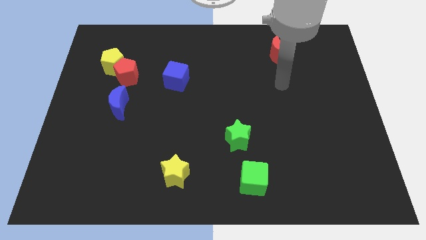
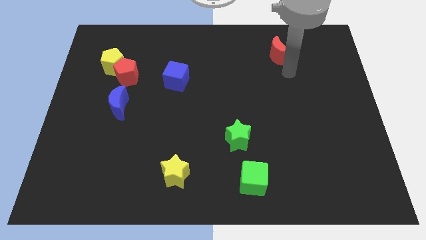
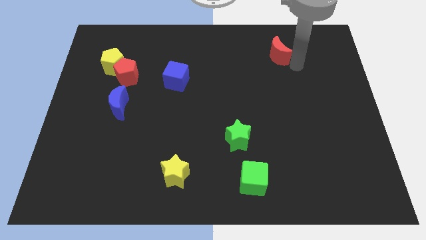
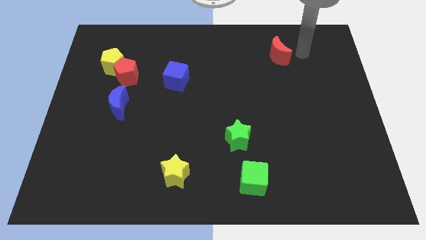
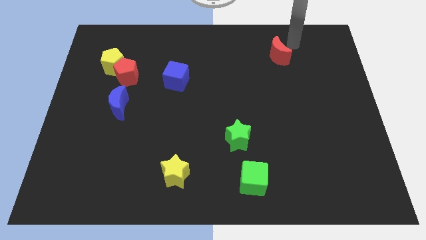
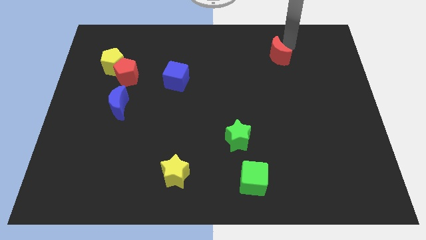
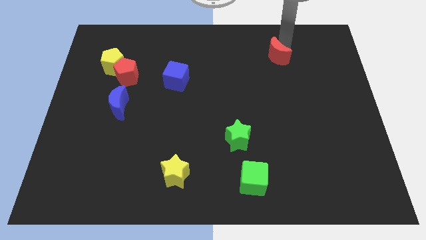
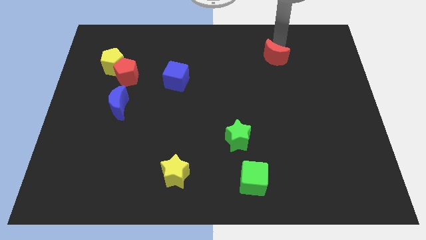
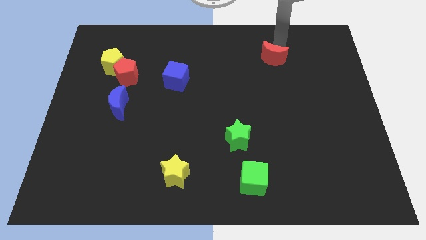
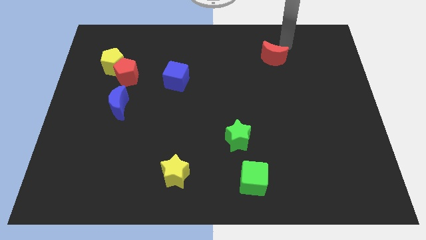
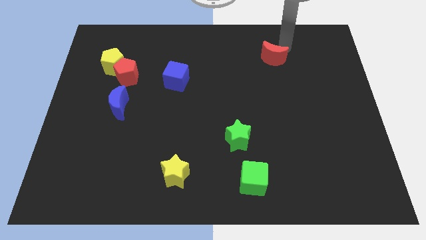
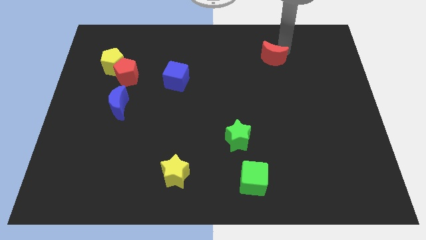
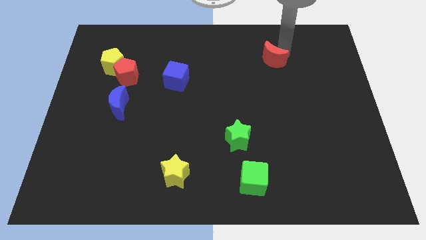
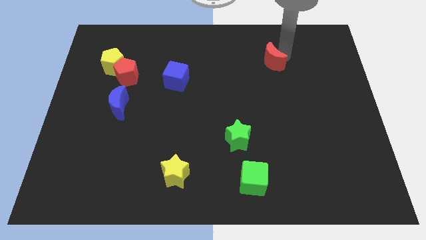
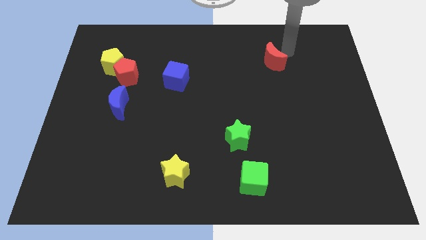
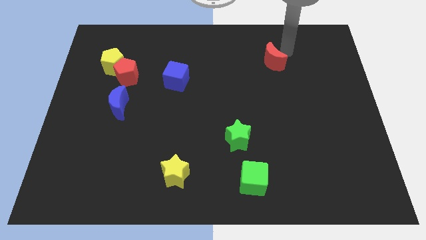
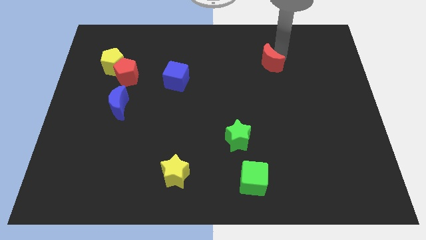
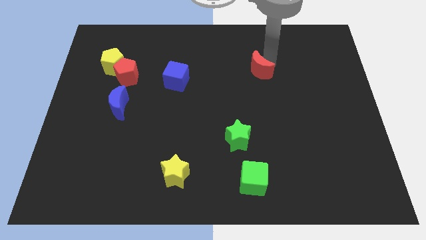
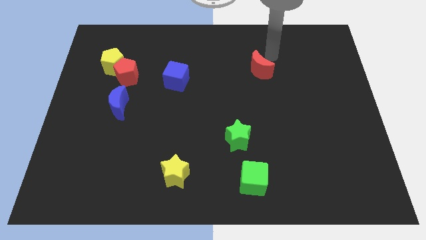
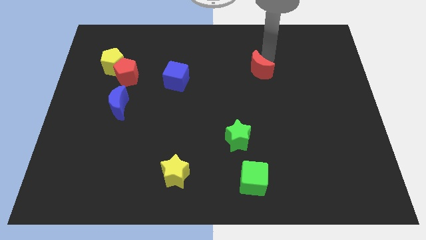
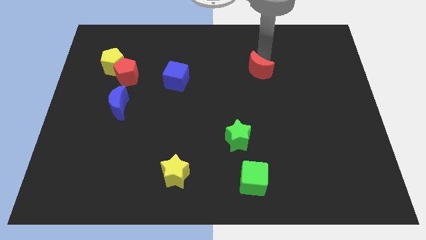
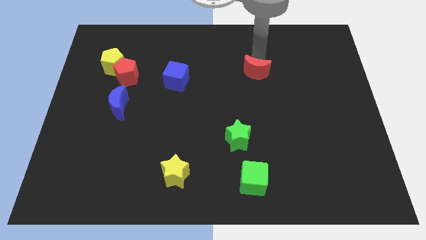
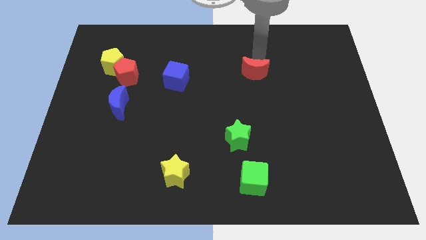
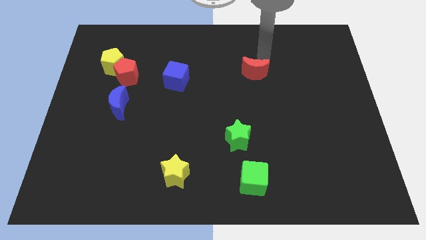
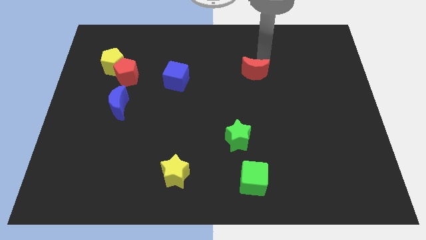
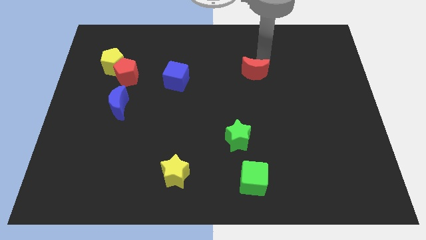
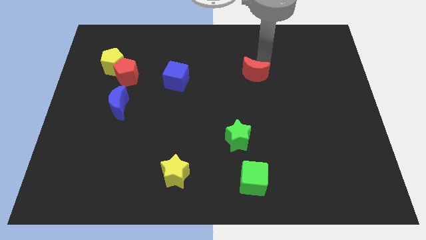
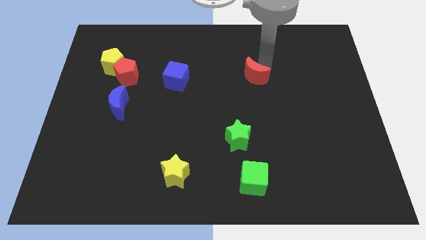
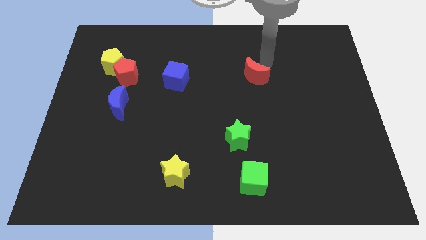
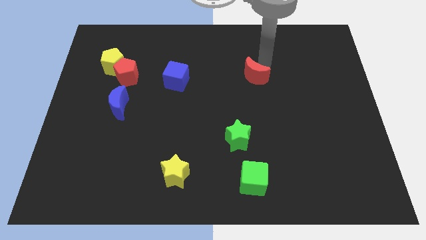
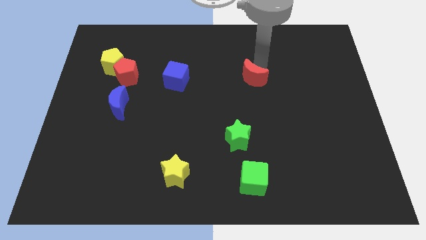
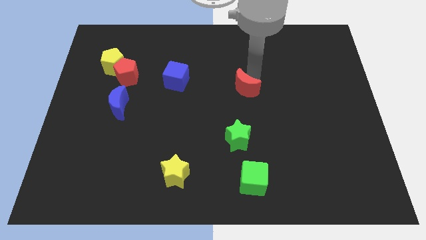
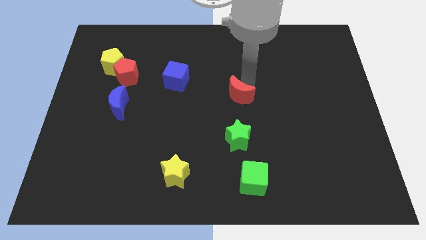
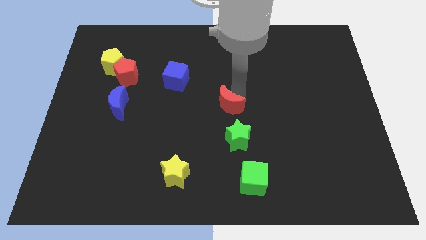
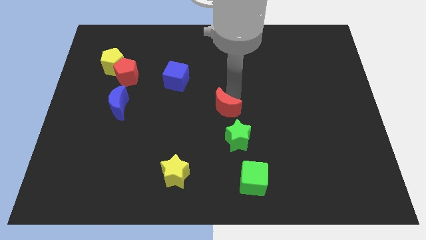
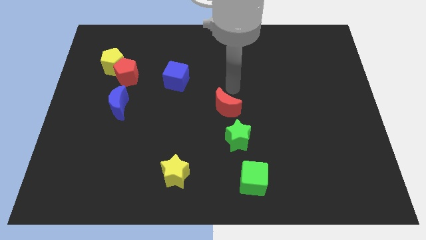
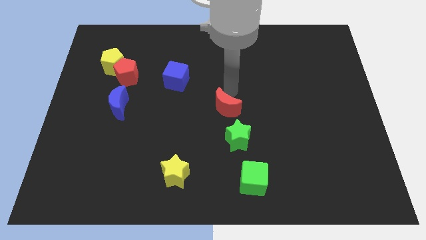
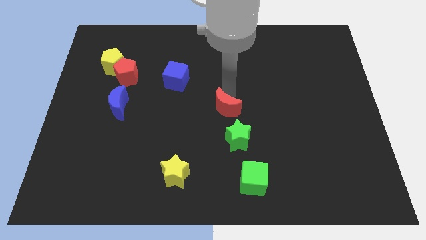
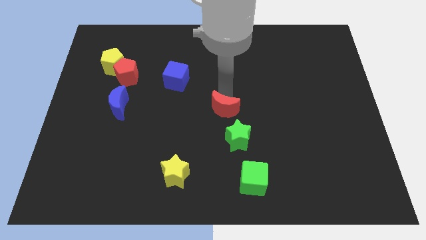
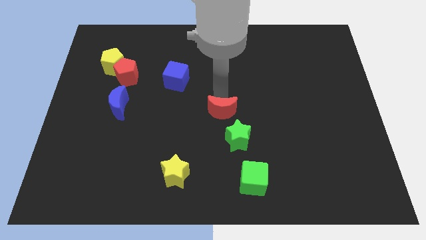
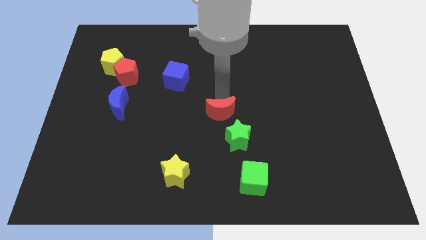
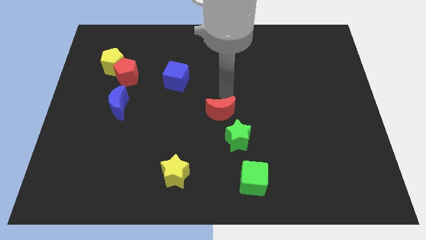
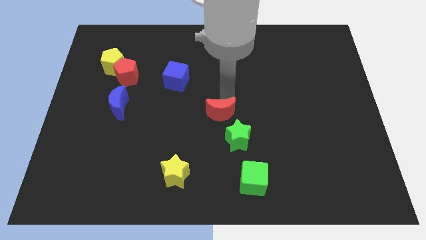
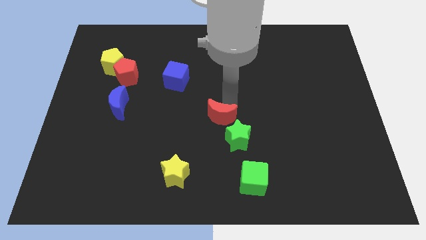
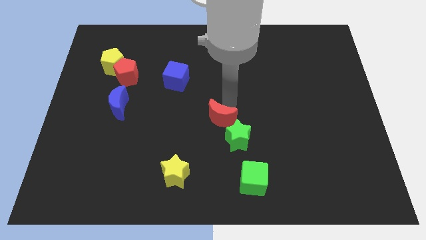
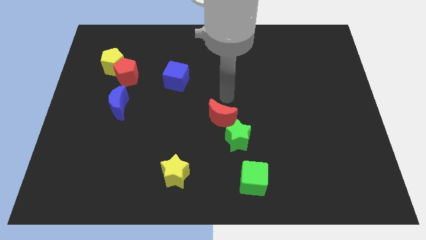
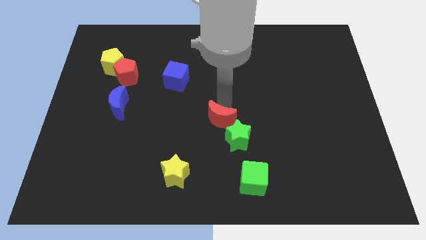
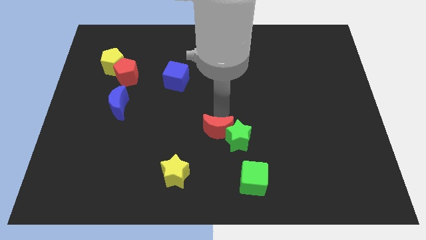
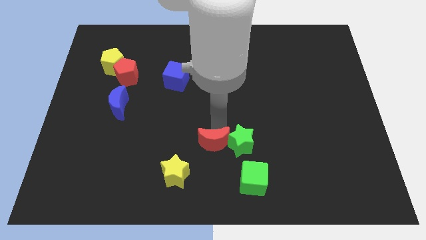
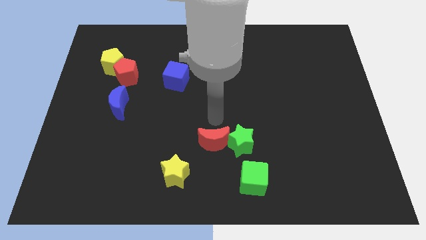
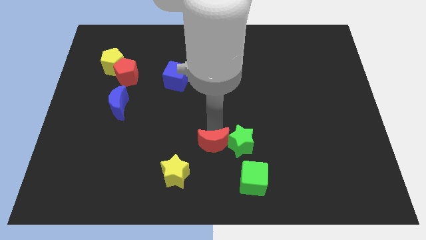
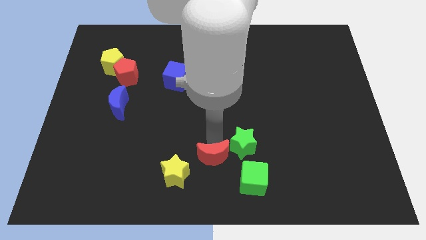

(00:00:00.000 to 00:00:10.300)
slide the red moon to the bottom

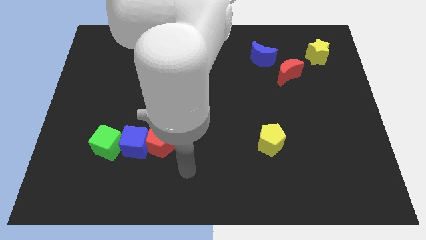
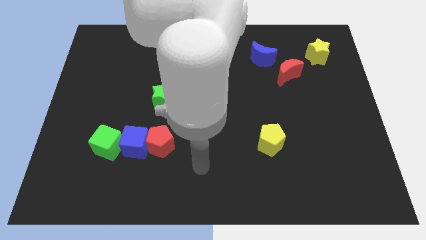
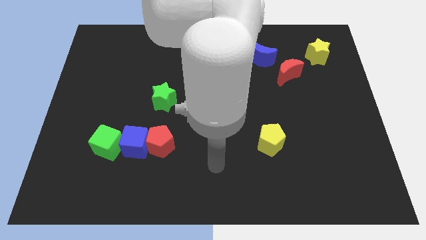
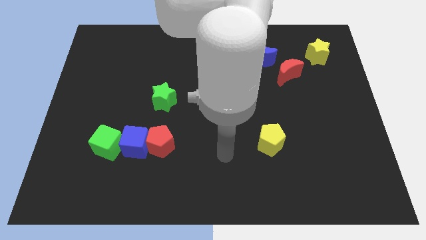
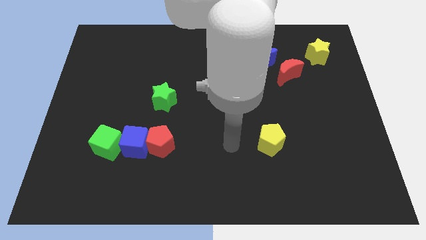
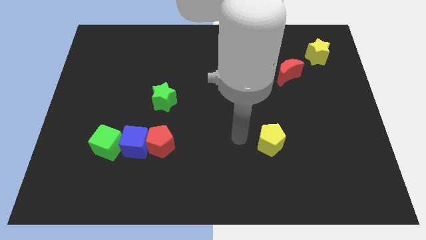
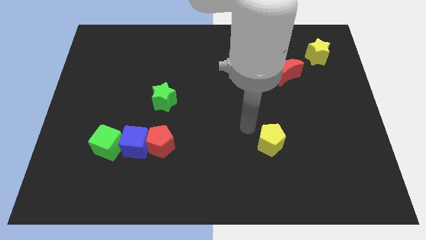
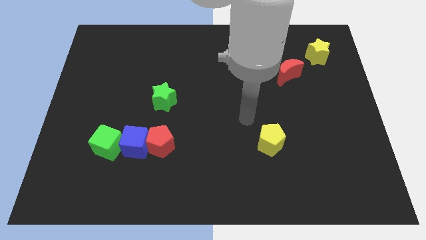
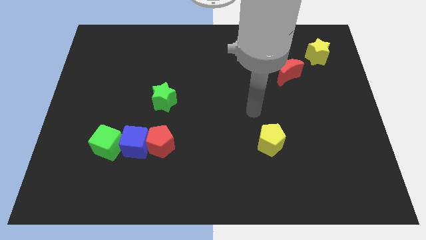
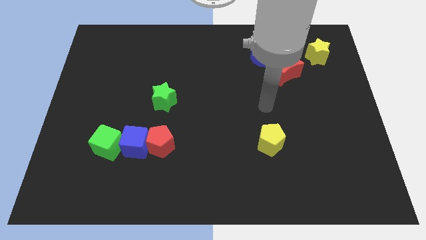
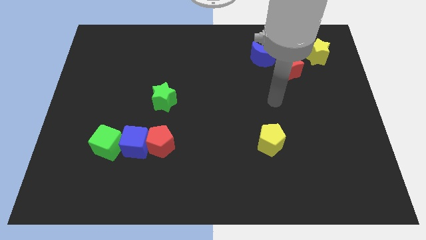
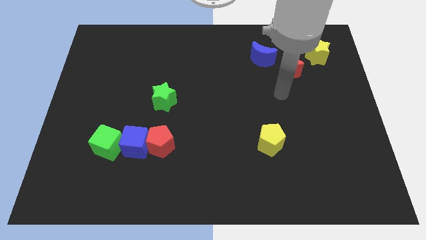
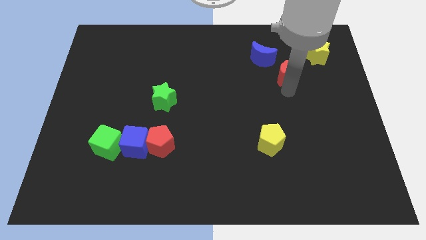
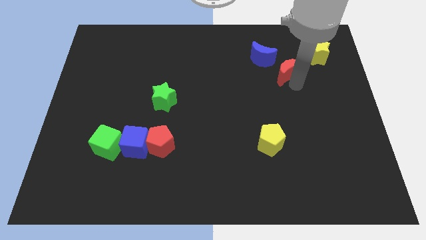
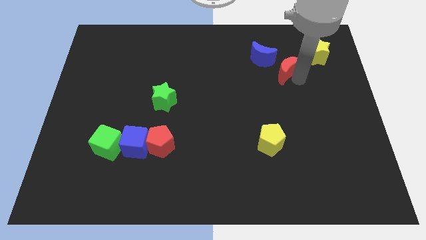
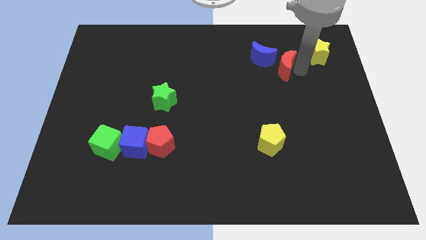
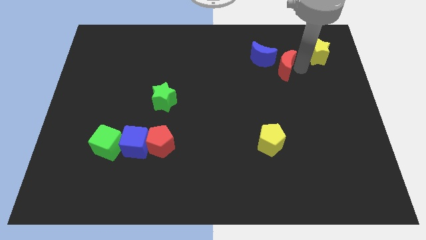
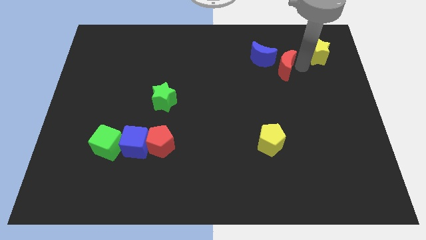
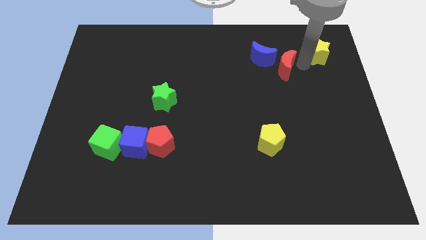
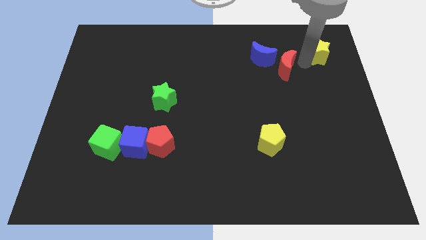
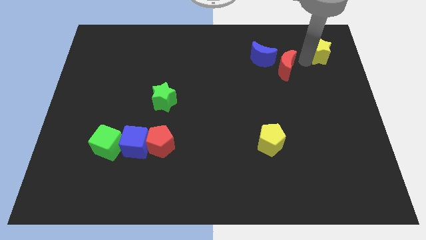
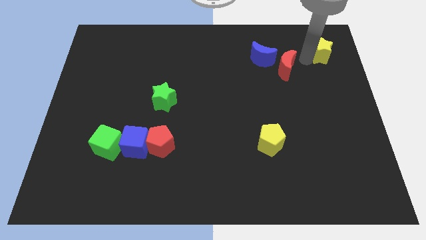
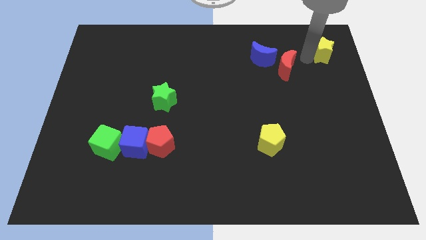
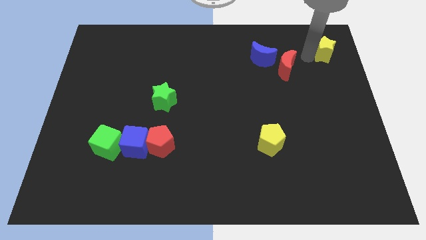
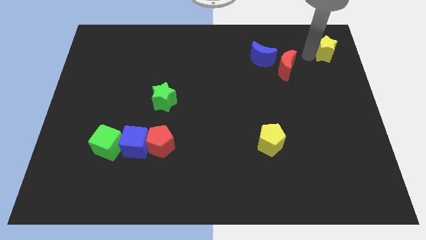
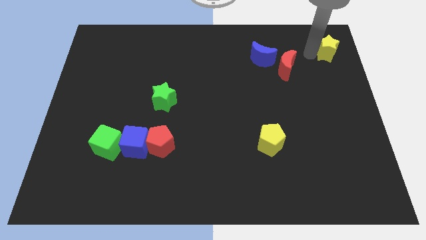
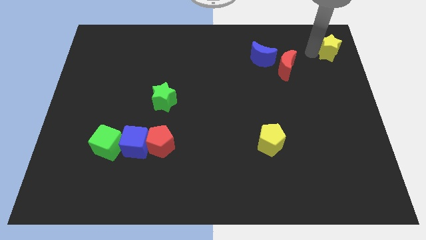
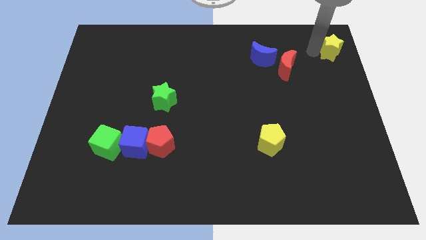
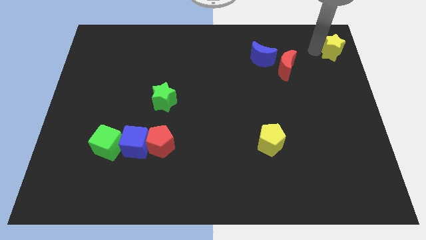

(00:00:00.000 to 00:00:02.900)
slide the yellow star to the top right
